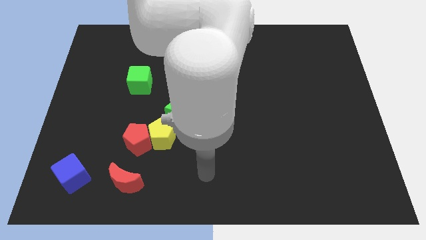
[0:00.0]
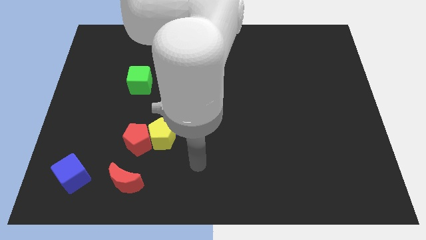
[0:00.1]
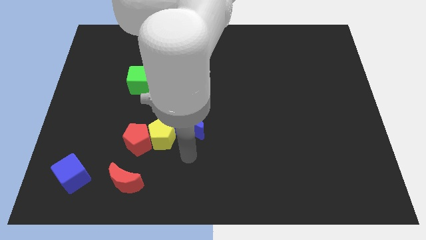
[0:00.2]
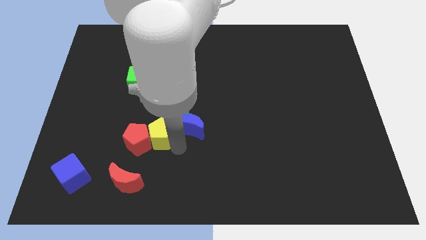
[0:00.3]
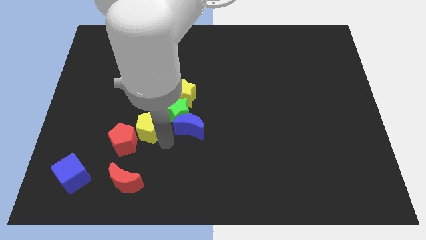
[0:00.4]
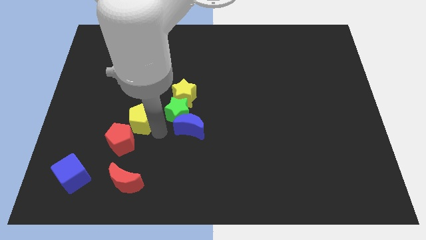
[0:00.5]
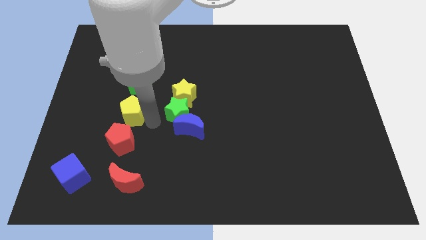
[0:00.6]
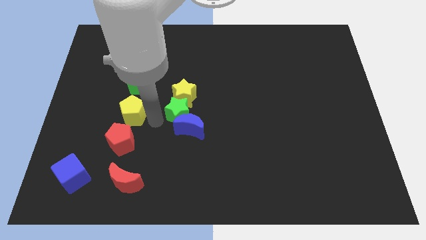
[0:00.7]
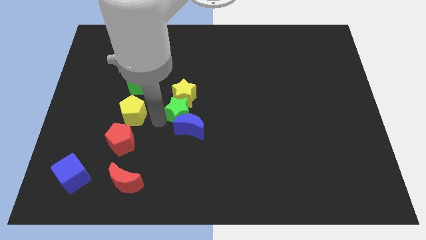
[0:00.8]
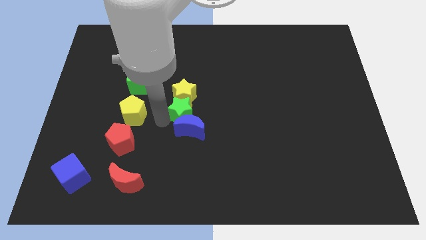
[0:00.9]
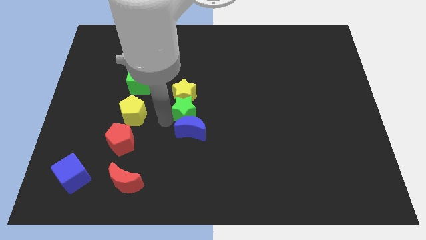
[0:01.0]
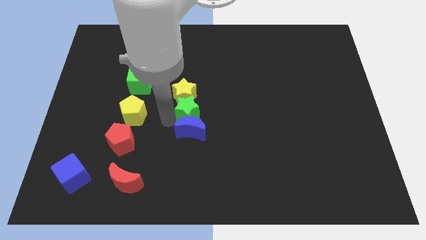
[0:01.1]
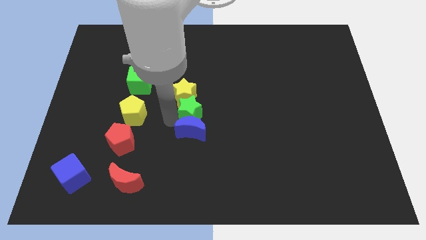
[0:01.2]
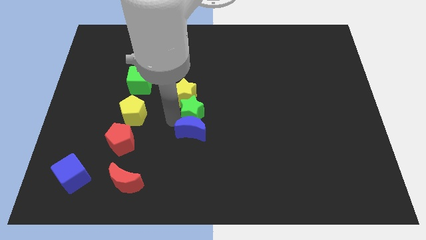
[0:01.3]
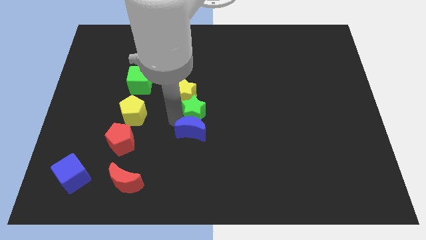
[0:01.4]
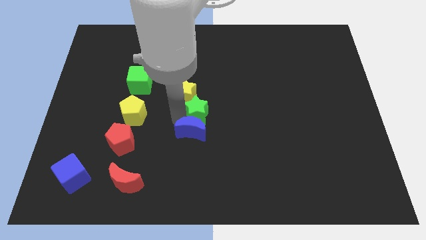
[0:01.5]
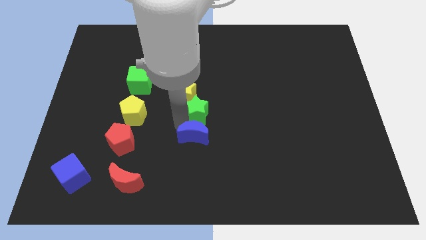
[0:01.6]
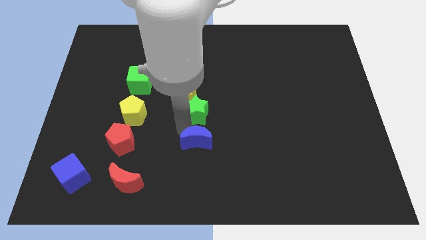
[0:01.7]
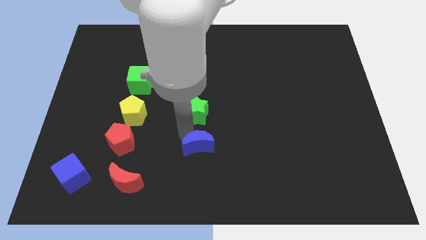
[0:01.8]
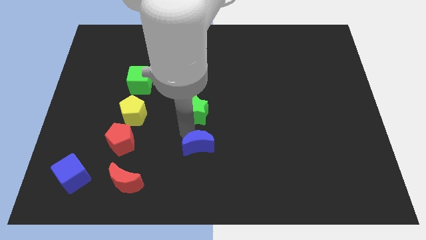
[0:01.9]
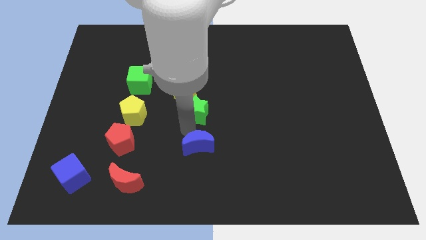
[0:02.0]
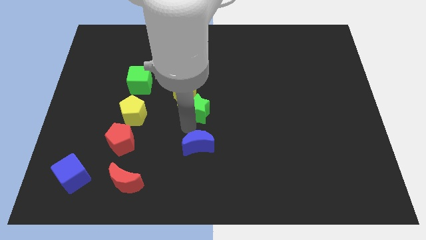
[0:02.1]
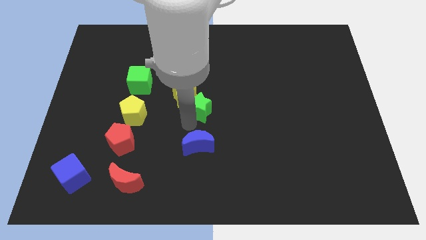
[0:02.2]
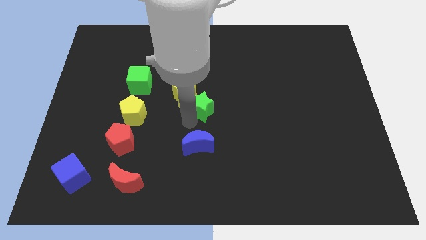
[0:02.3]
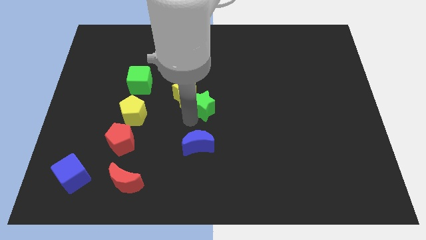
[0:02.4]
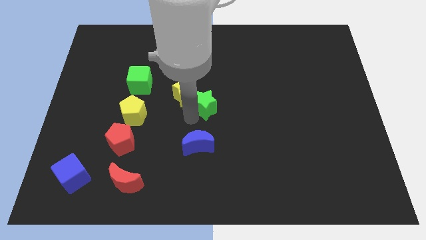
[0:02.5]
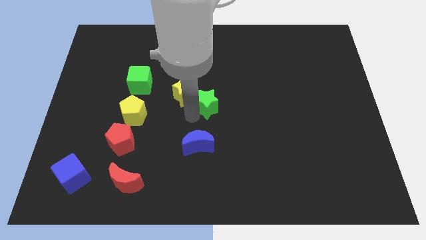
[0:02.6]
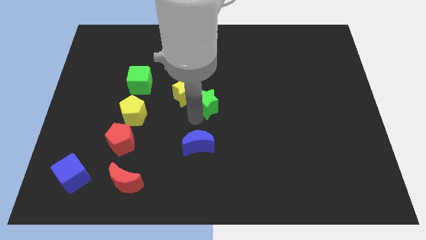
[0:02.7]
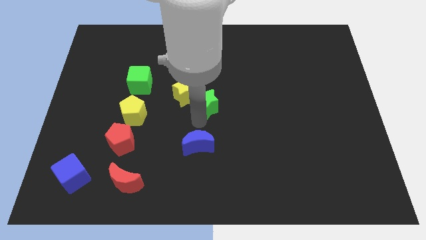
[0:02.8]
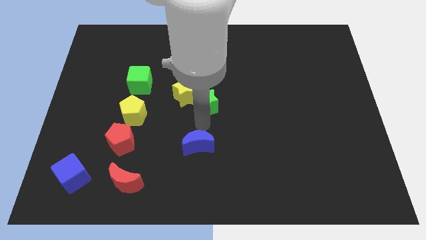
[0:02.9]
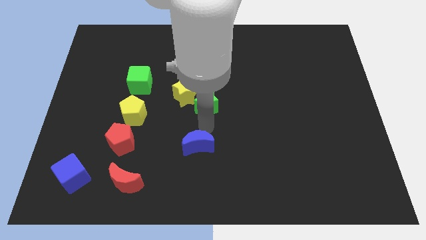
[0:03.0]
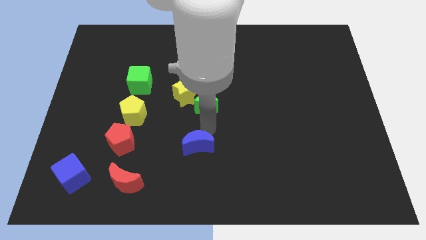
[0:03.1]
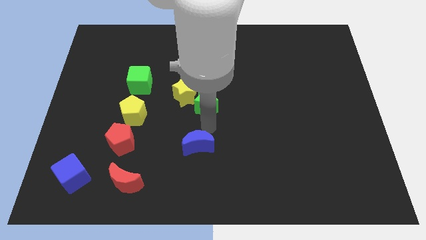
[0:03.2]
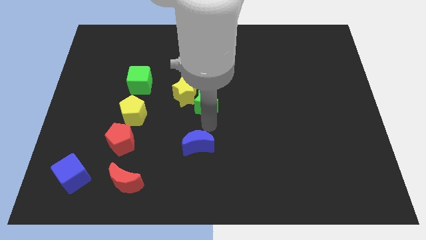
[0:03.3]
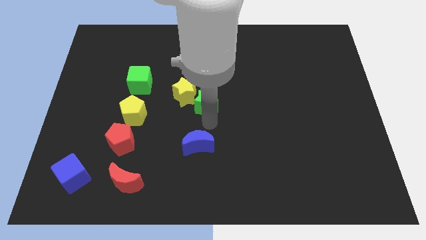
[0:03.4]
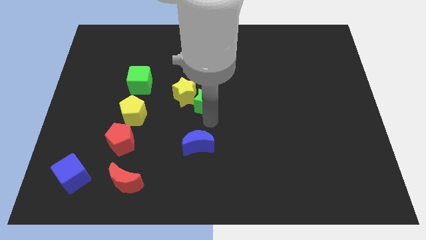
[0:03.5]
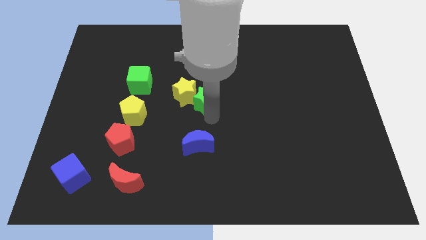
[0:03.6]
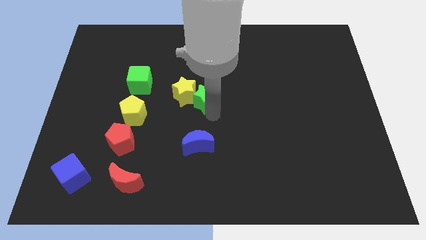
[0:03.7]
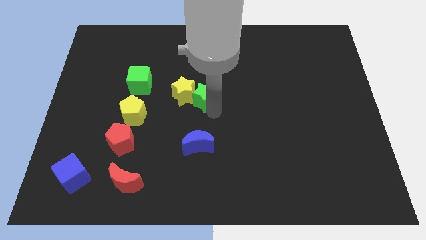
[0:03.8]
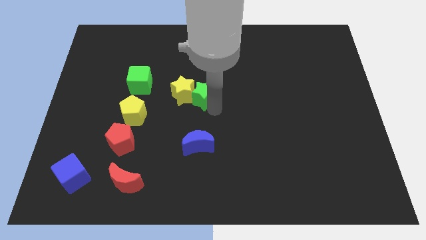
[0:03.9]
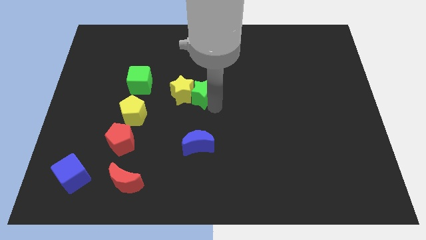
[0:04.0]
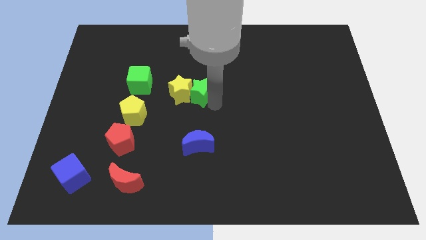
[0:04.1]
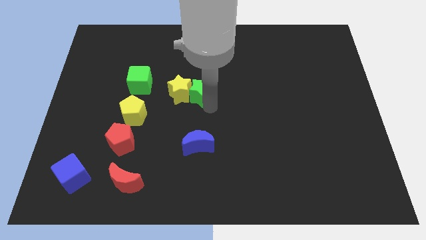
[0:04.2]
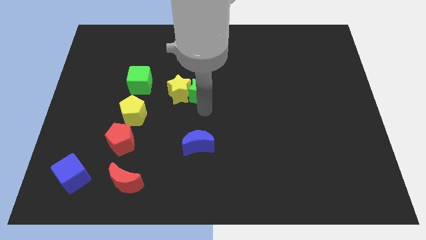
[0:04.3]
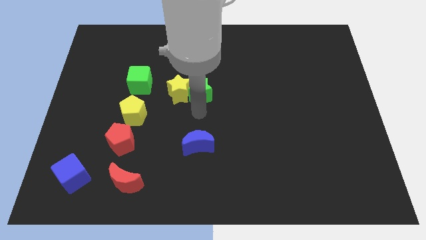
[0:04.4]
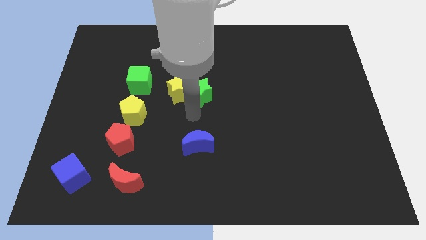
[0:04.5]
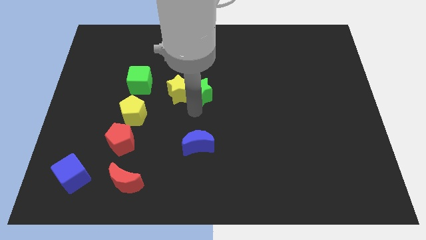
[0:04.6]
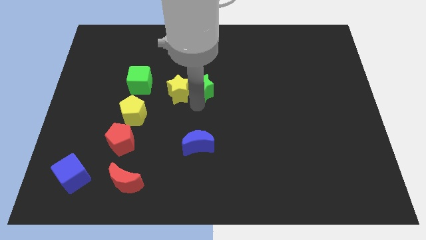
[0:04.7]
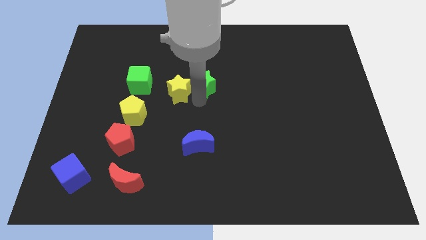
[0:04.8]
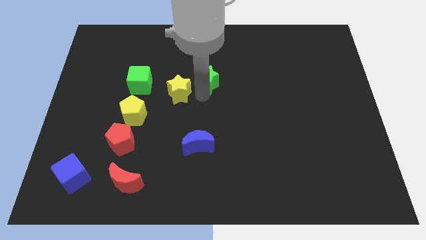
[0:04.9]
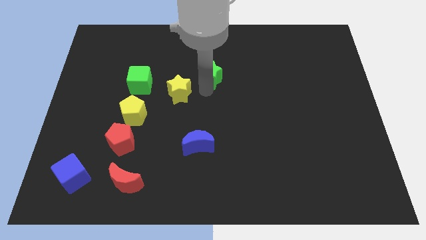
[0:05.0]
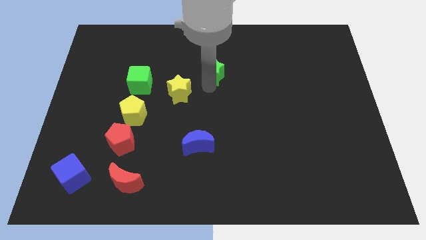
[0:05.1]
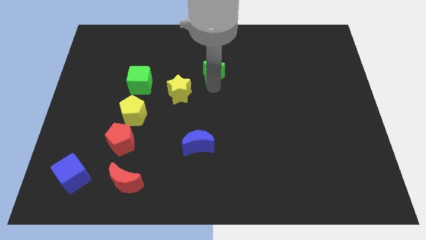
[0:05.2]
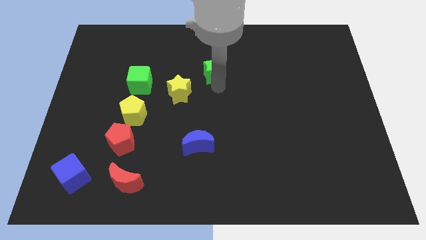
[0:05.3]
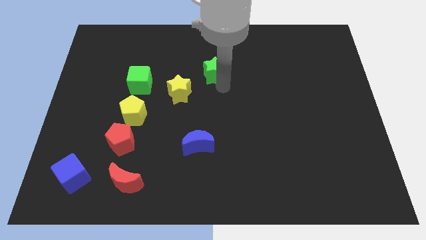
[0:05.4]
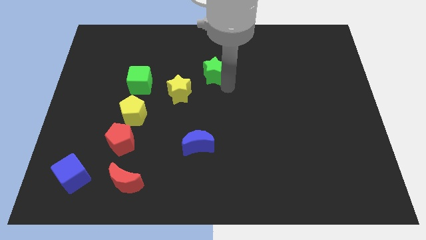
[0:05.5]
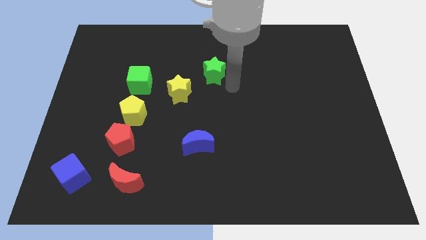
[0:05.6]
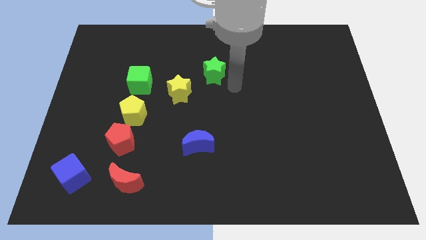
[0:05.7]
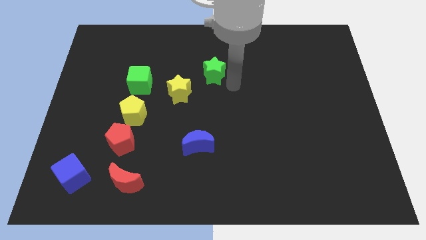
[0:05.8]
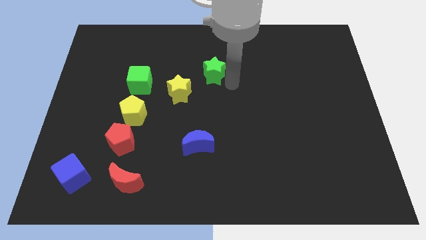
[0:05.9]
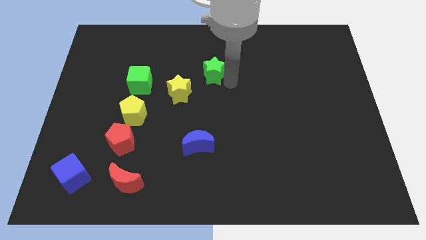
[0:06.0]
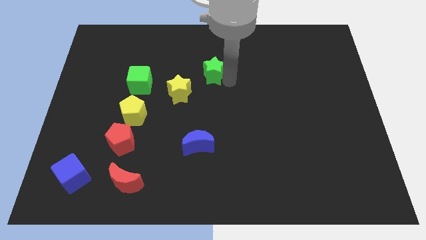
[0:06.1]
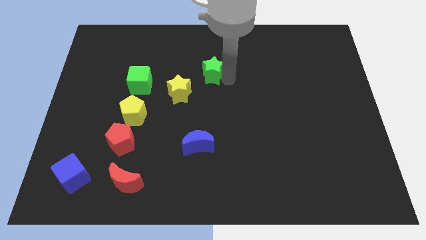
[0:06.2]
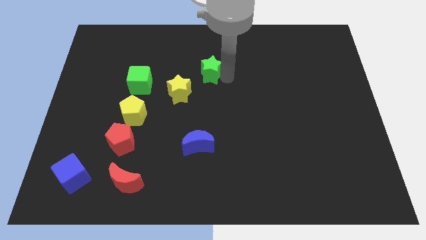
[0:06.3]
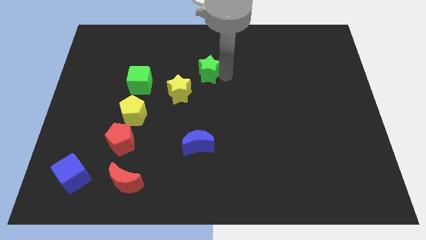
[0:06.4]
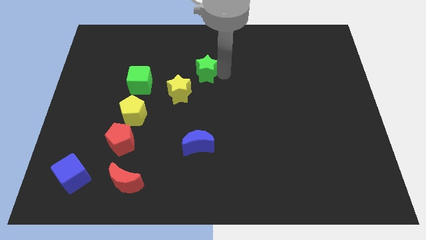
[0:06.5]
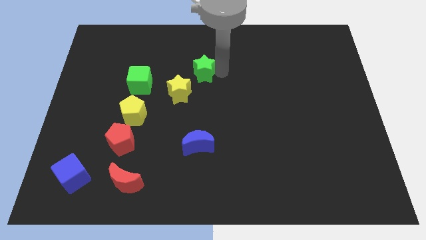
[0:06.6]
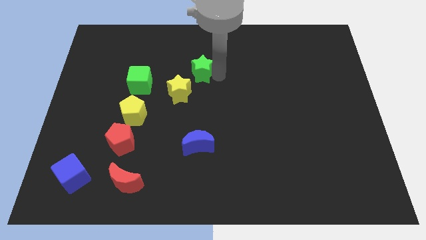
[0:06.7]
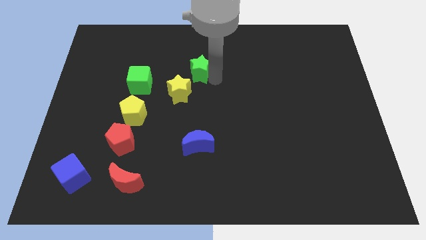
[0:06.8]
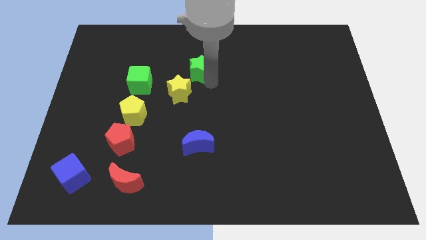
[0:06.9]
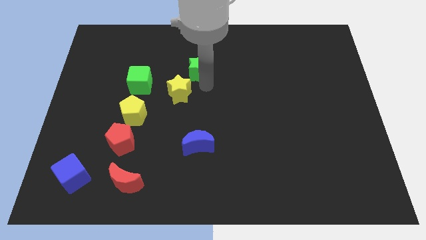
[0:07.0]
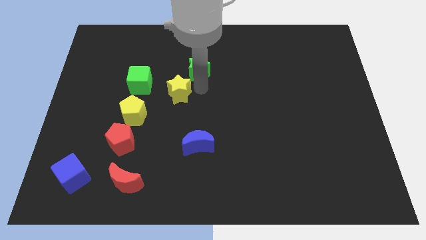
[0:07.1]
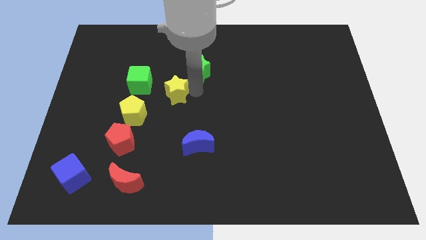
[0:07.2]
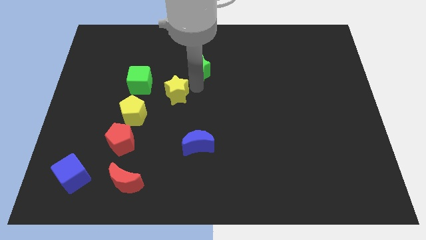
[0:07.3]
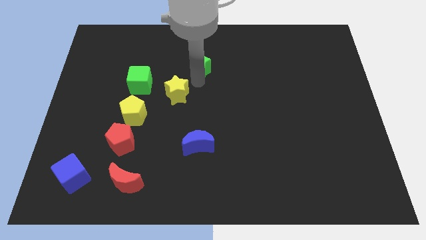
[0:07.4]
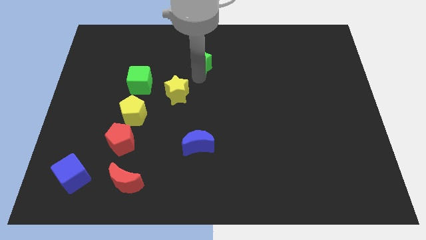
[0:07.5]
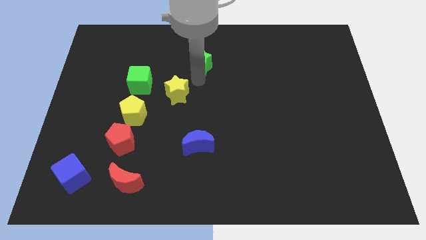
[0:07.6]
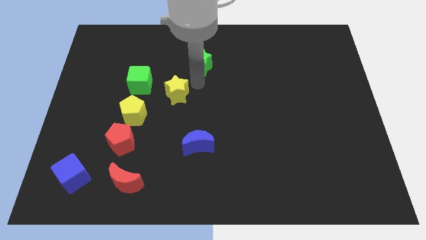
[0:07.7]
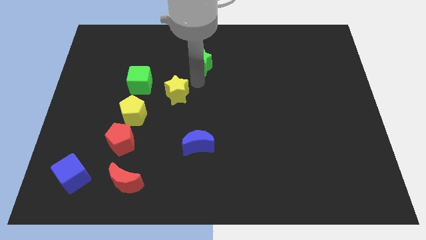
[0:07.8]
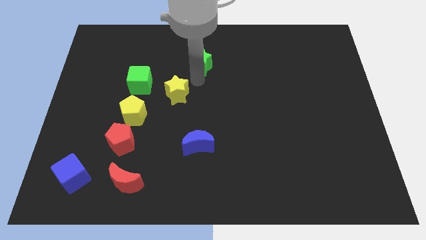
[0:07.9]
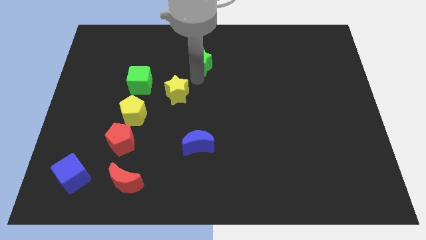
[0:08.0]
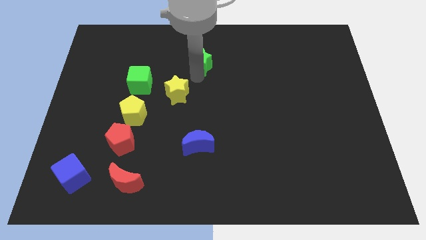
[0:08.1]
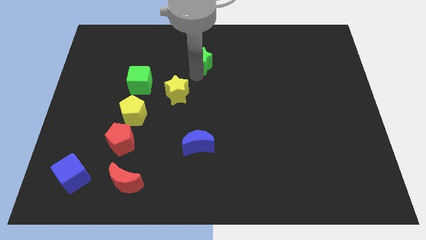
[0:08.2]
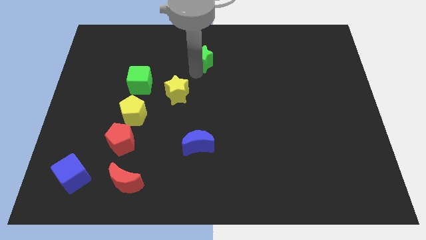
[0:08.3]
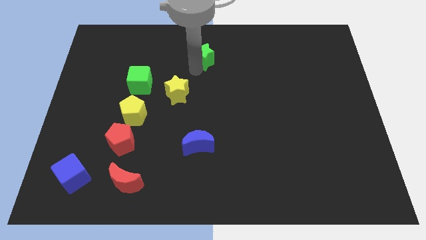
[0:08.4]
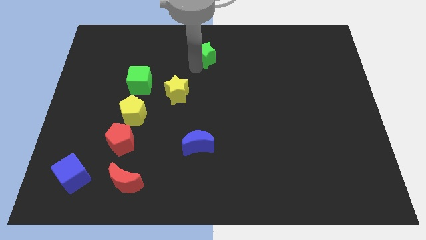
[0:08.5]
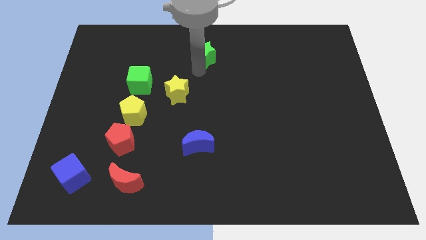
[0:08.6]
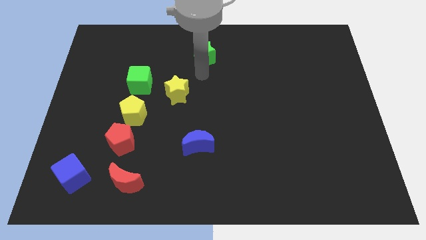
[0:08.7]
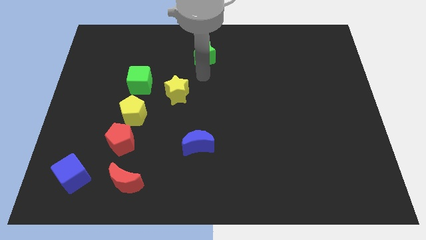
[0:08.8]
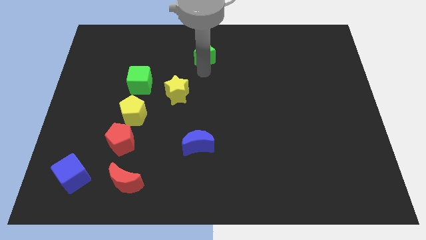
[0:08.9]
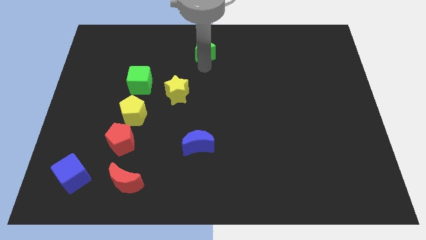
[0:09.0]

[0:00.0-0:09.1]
move the green star to the top
